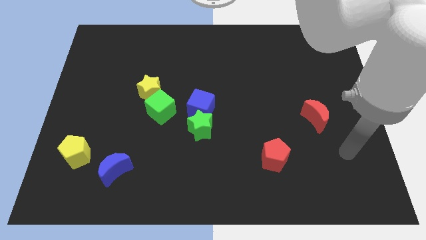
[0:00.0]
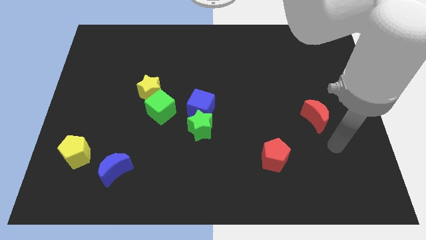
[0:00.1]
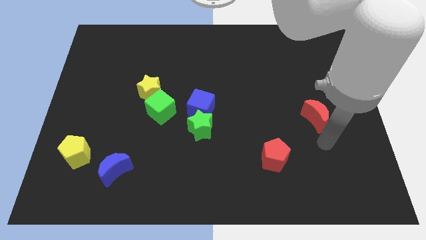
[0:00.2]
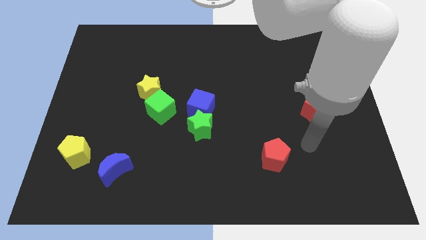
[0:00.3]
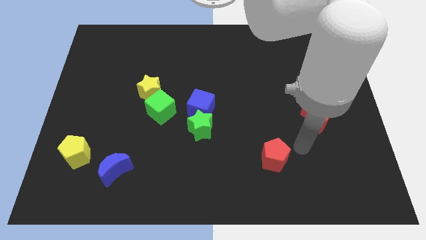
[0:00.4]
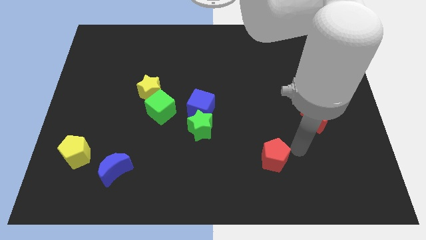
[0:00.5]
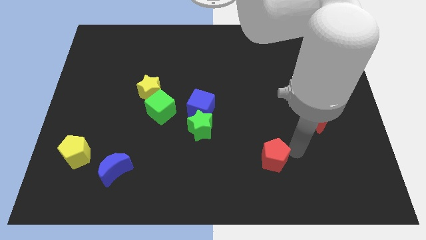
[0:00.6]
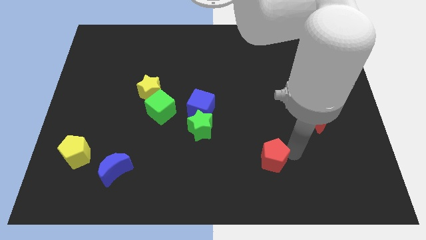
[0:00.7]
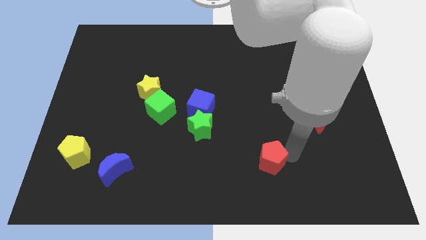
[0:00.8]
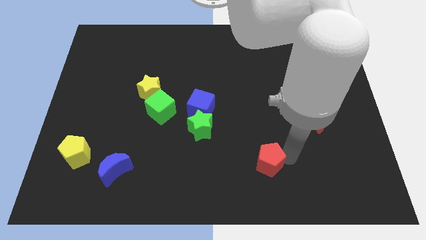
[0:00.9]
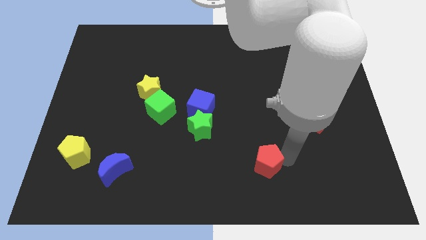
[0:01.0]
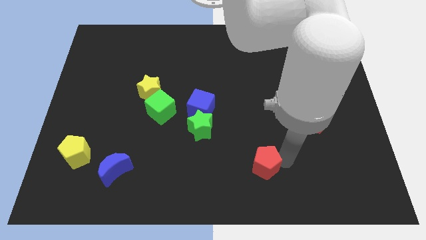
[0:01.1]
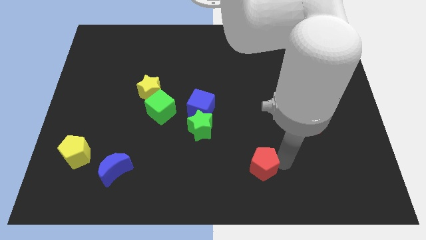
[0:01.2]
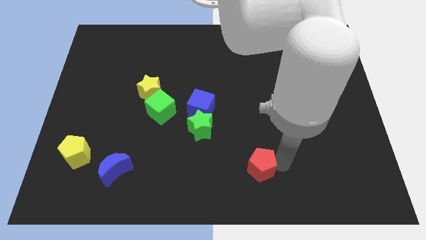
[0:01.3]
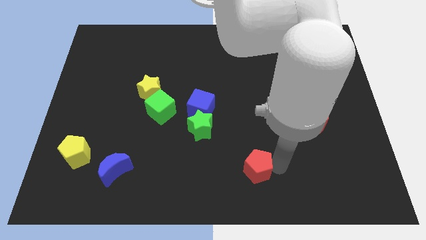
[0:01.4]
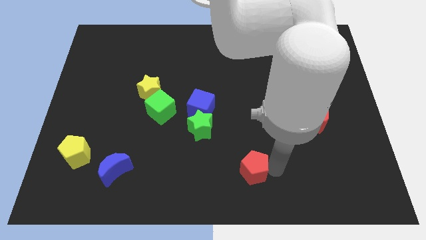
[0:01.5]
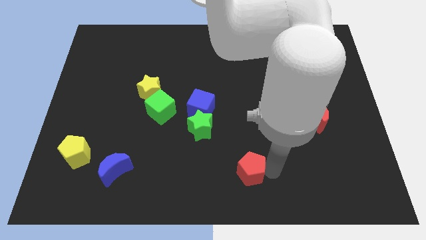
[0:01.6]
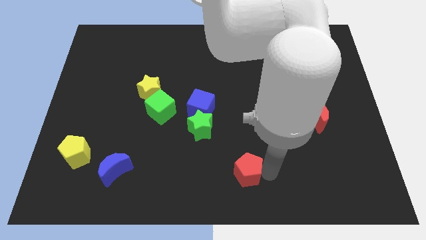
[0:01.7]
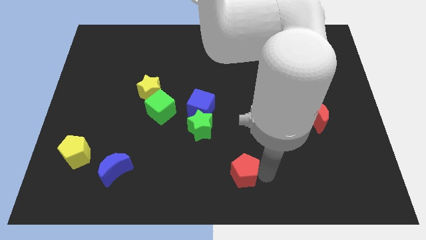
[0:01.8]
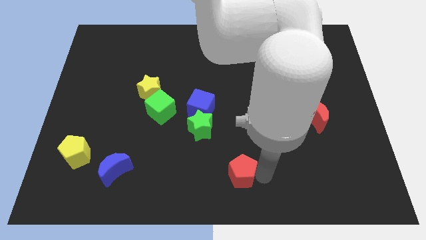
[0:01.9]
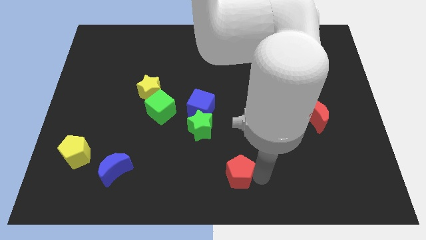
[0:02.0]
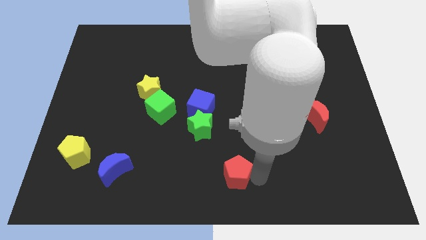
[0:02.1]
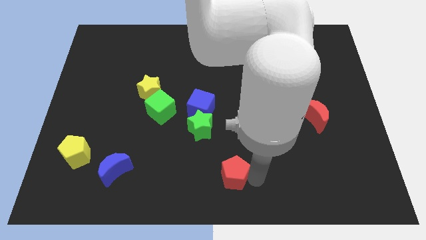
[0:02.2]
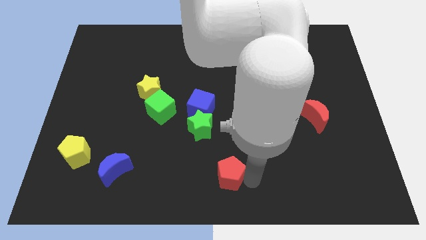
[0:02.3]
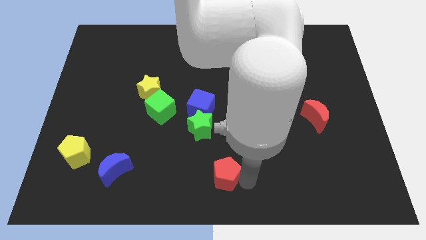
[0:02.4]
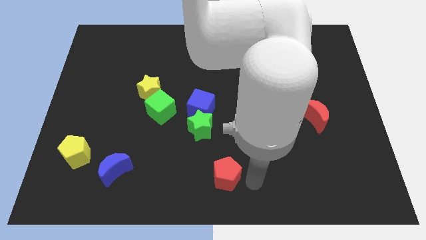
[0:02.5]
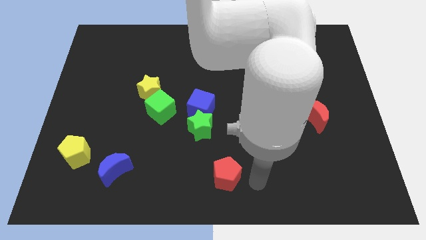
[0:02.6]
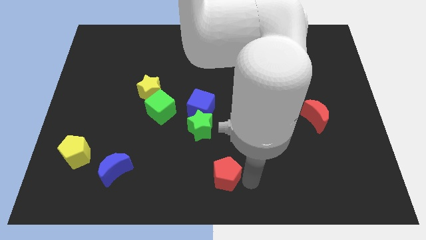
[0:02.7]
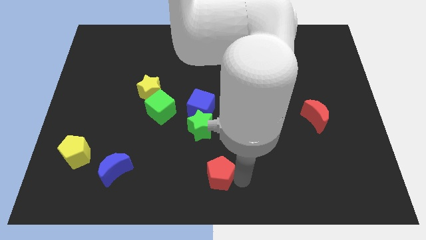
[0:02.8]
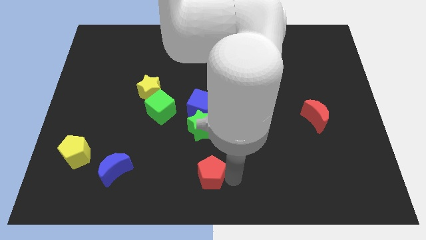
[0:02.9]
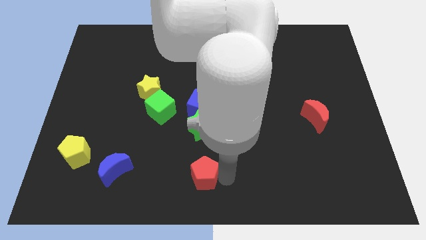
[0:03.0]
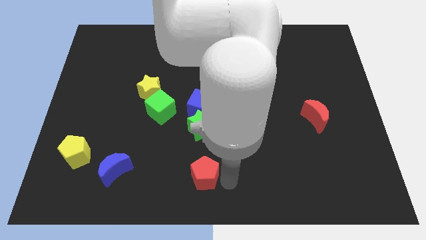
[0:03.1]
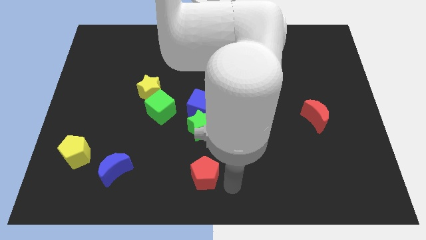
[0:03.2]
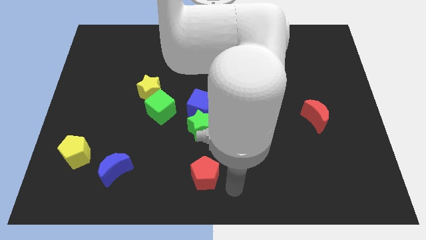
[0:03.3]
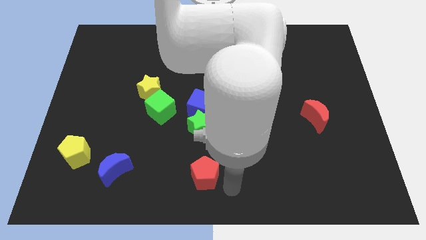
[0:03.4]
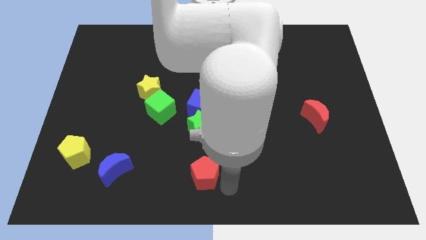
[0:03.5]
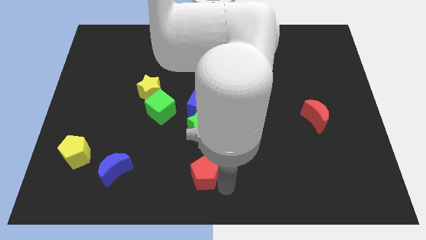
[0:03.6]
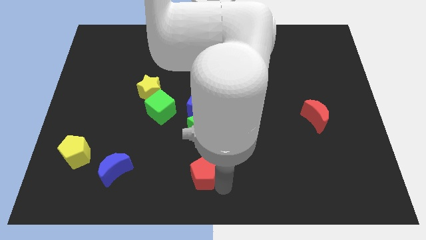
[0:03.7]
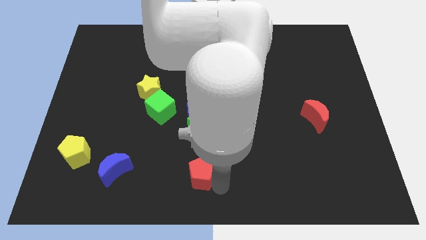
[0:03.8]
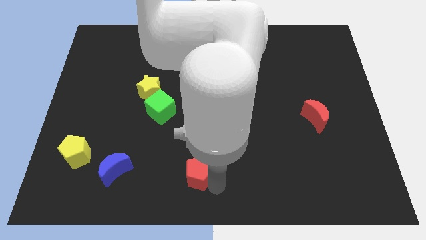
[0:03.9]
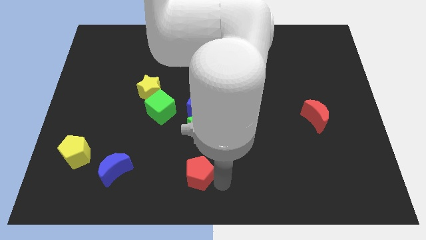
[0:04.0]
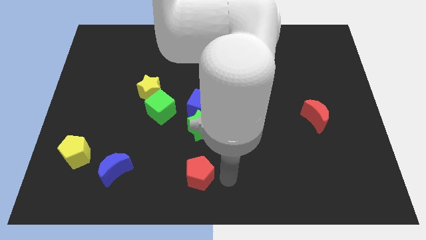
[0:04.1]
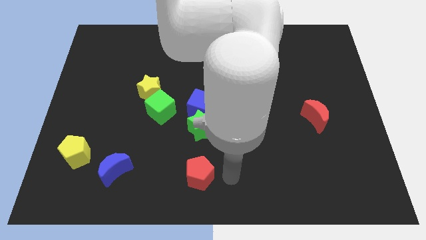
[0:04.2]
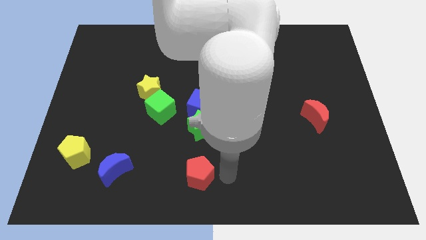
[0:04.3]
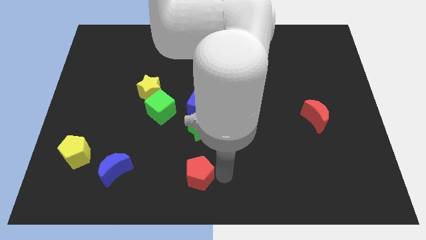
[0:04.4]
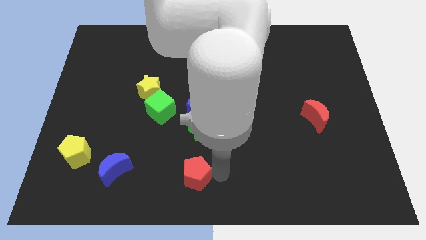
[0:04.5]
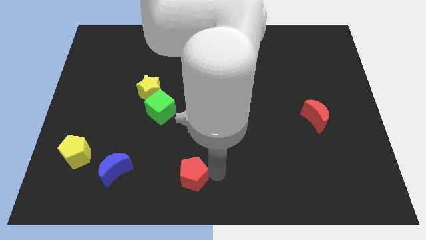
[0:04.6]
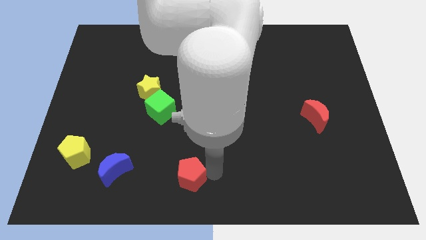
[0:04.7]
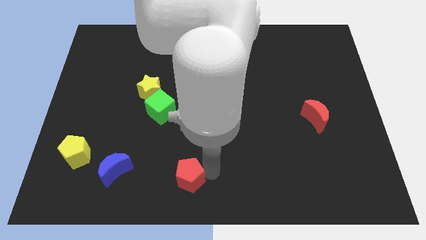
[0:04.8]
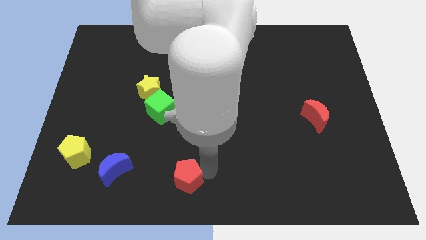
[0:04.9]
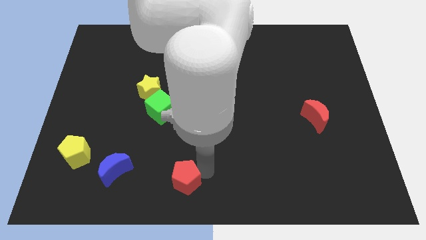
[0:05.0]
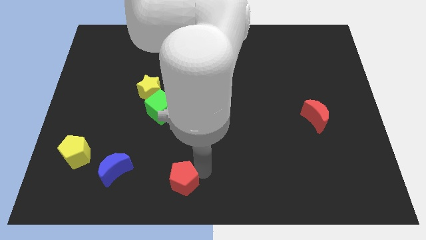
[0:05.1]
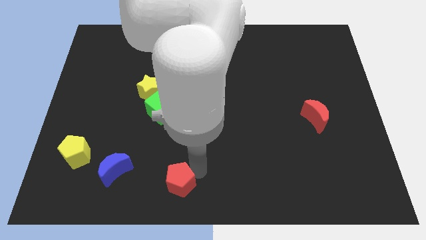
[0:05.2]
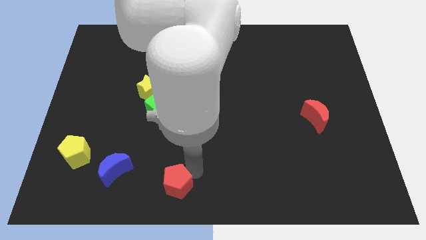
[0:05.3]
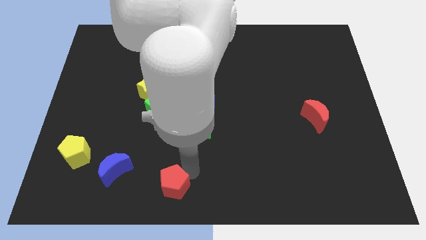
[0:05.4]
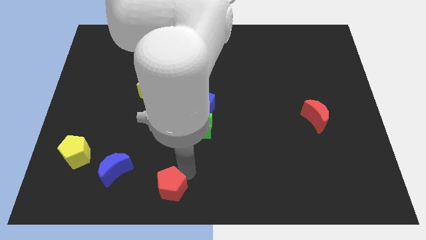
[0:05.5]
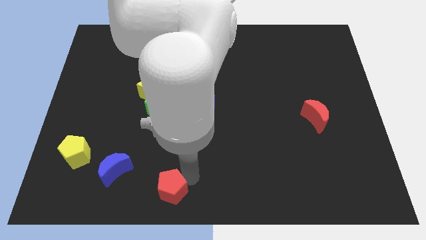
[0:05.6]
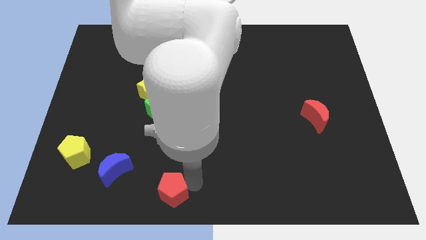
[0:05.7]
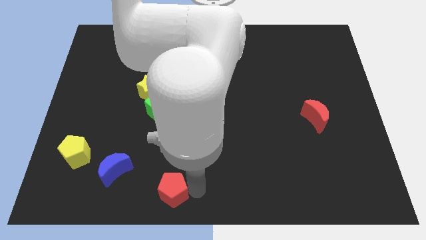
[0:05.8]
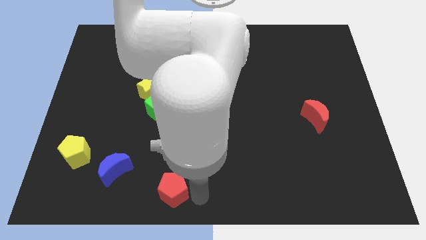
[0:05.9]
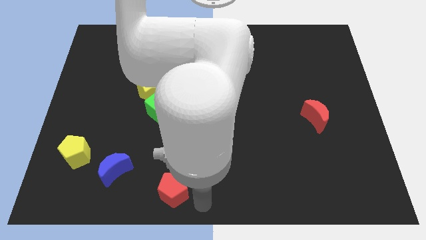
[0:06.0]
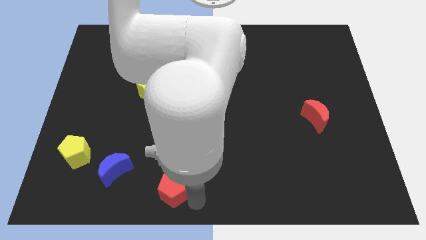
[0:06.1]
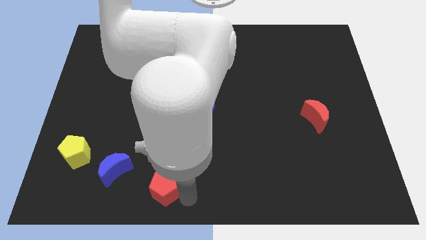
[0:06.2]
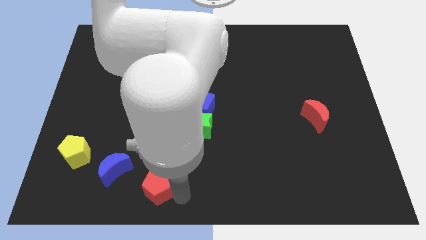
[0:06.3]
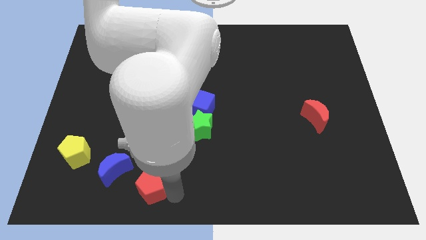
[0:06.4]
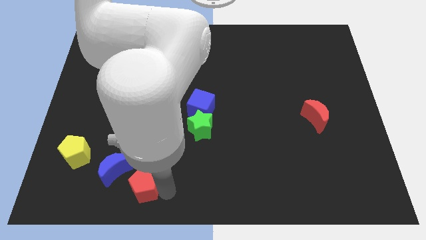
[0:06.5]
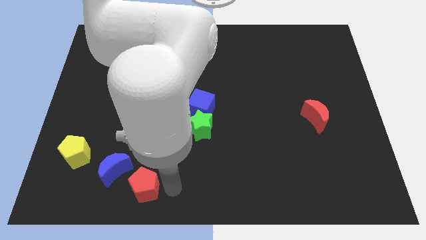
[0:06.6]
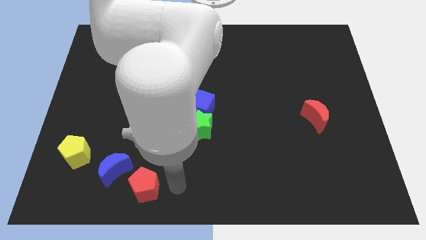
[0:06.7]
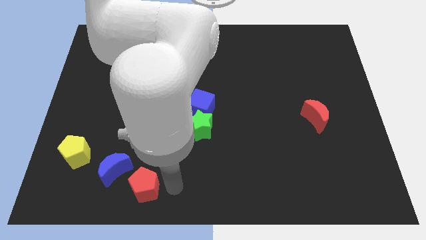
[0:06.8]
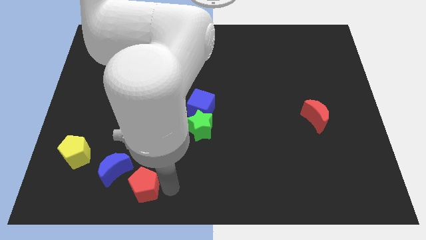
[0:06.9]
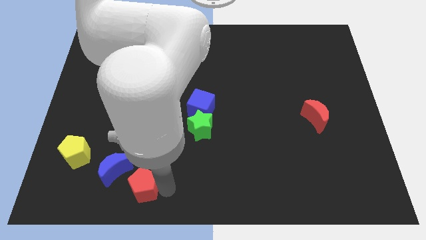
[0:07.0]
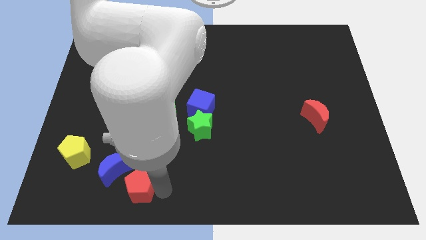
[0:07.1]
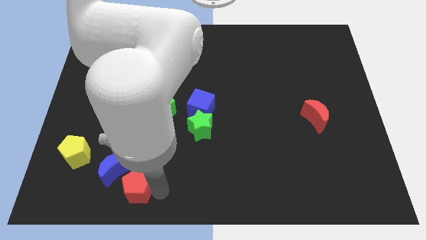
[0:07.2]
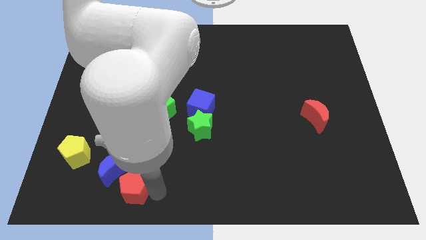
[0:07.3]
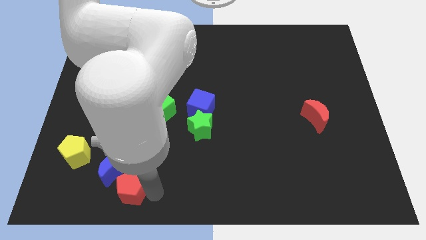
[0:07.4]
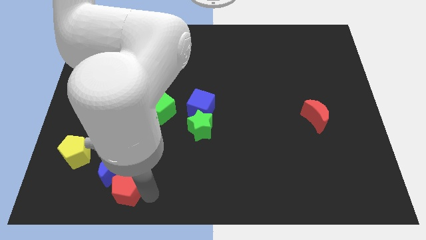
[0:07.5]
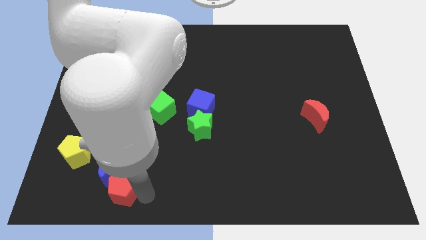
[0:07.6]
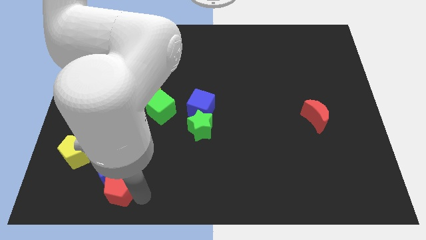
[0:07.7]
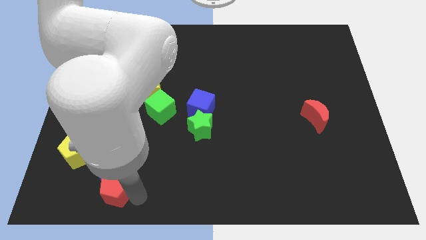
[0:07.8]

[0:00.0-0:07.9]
push the red pentagon to the bottom right side of the yellow pentagon
